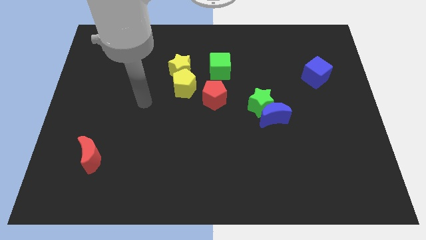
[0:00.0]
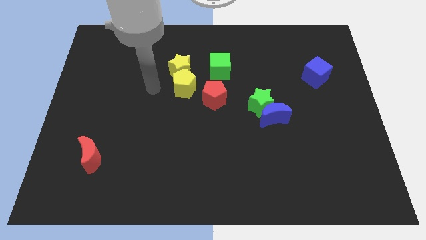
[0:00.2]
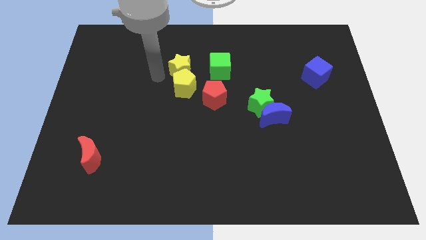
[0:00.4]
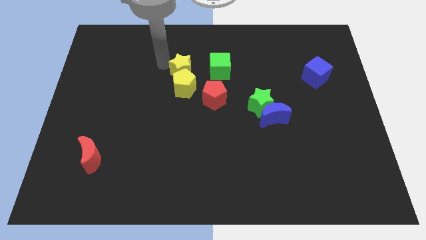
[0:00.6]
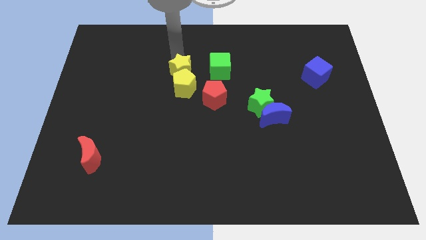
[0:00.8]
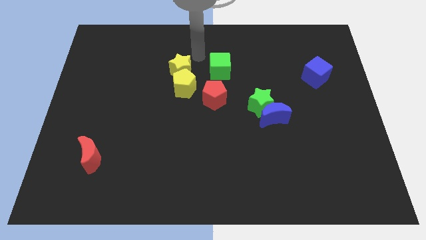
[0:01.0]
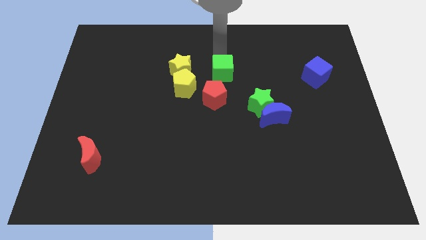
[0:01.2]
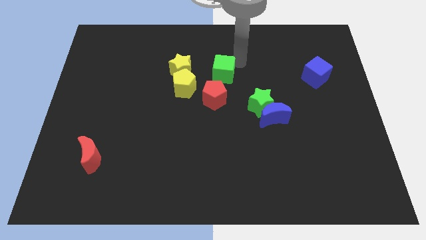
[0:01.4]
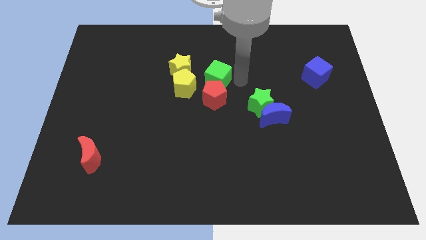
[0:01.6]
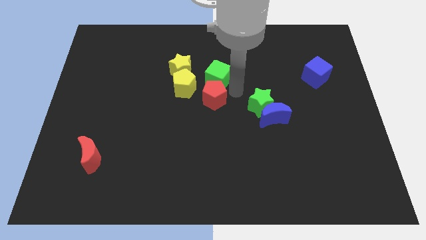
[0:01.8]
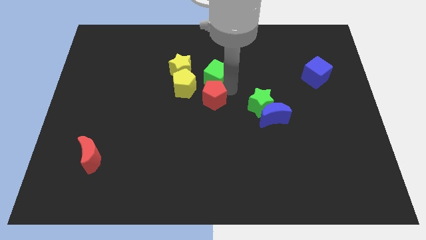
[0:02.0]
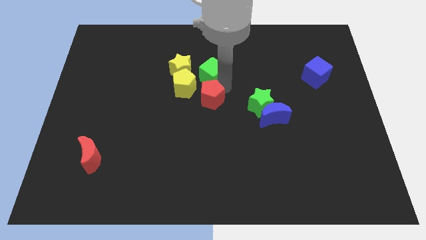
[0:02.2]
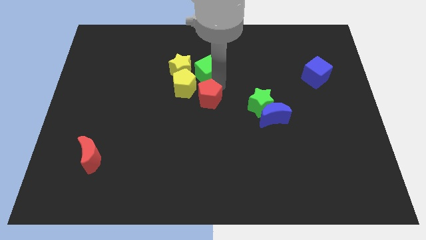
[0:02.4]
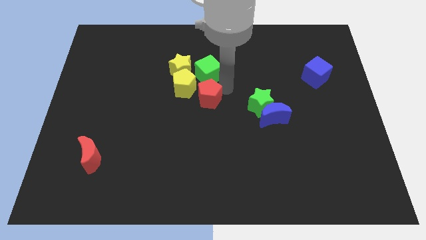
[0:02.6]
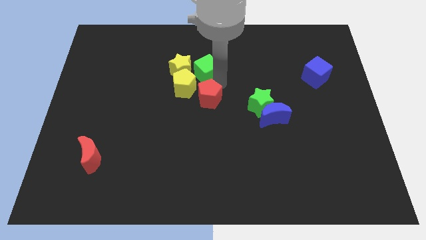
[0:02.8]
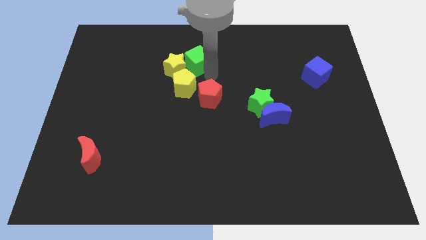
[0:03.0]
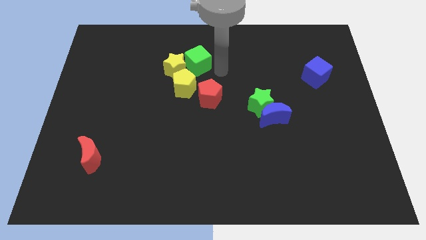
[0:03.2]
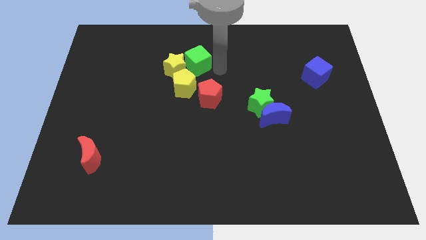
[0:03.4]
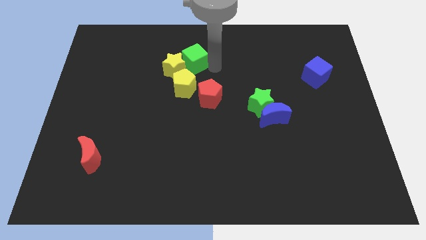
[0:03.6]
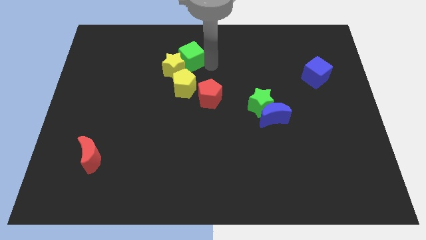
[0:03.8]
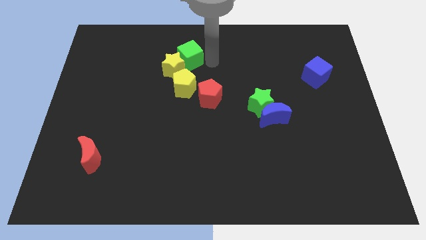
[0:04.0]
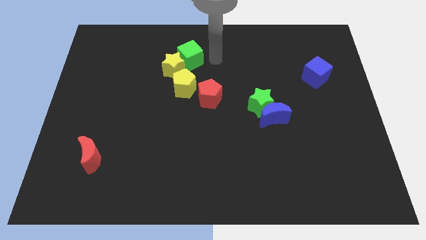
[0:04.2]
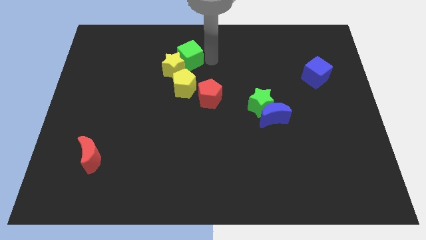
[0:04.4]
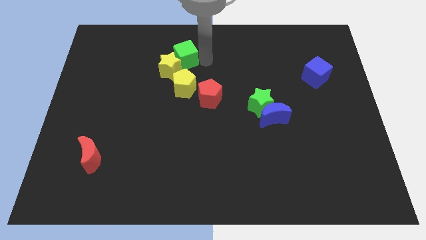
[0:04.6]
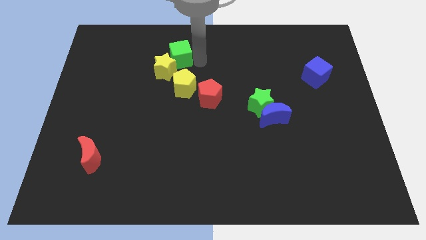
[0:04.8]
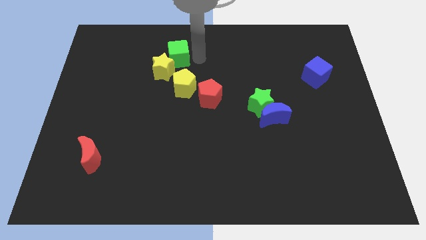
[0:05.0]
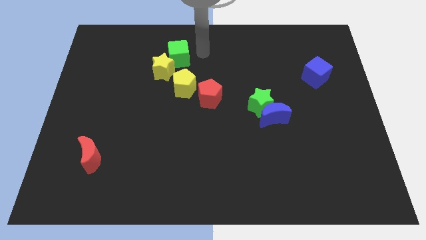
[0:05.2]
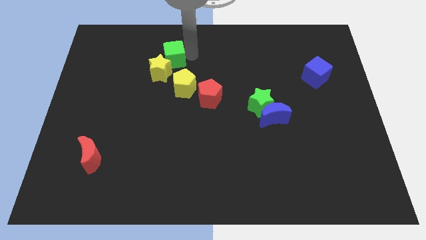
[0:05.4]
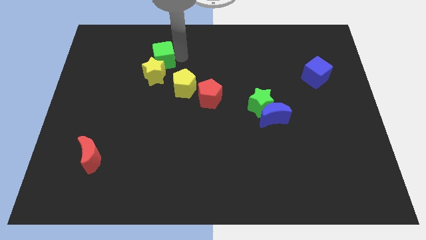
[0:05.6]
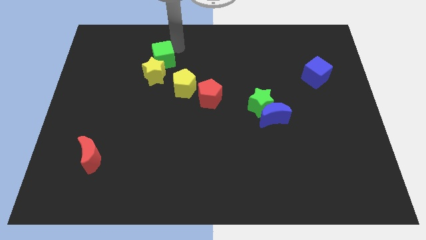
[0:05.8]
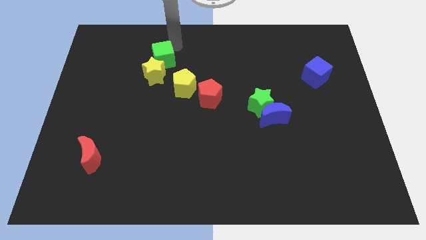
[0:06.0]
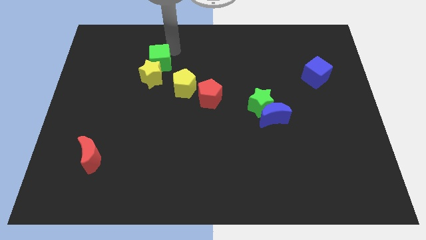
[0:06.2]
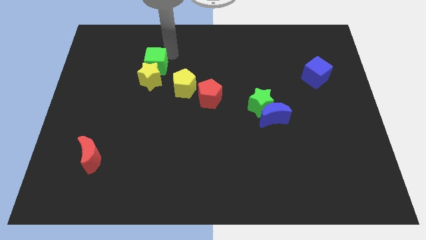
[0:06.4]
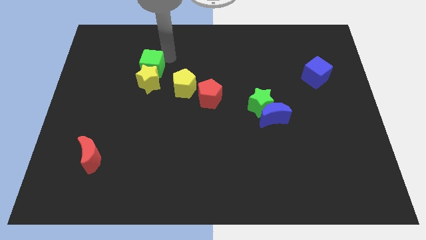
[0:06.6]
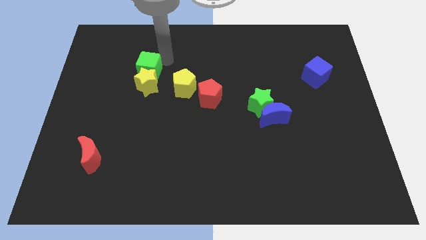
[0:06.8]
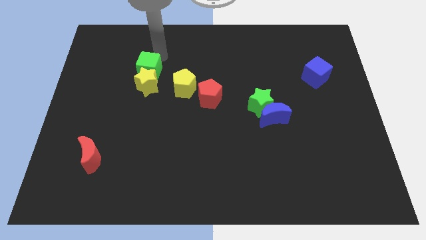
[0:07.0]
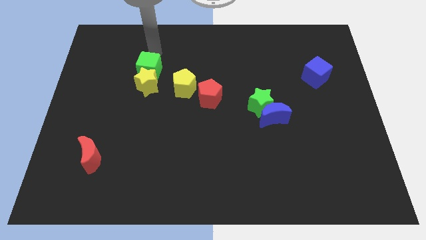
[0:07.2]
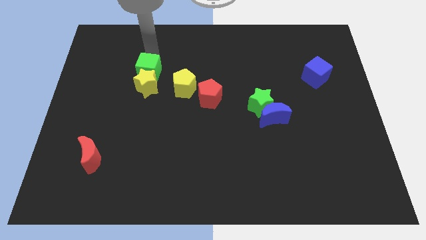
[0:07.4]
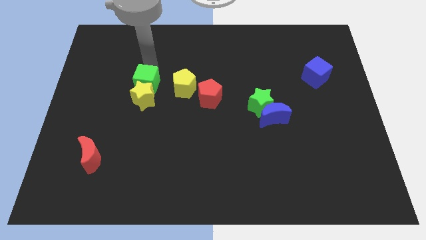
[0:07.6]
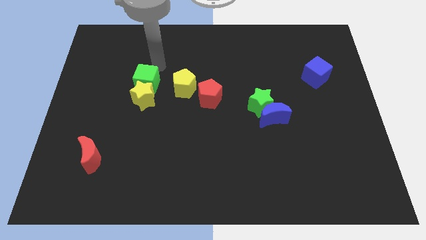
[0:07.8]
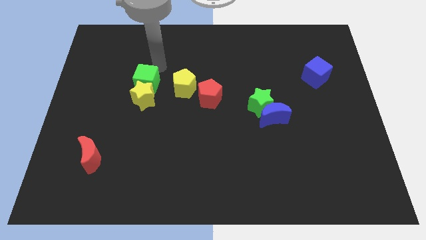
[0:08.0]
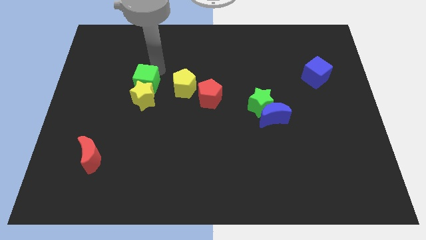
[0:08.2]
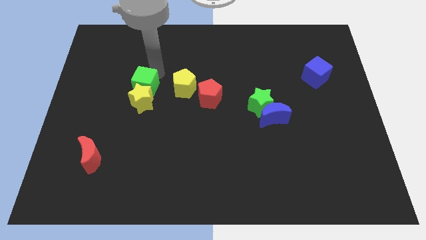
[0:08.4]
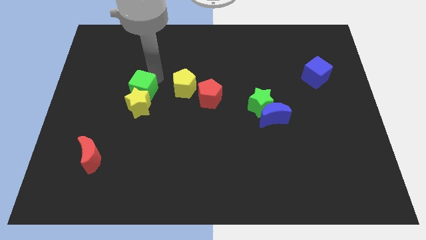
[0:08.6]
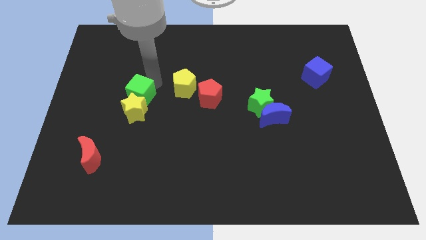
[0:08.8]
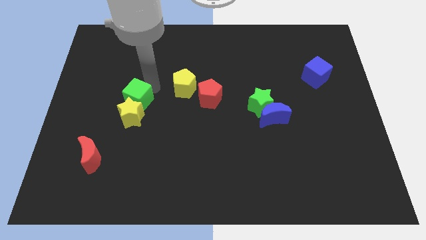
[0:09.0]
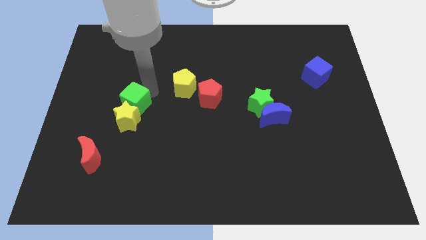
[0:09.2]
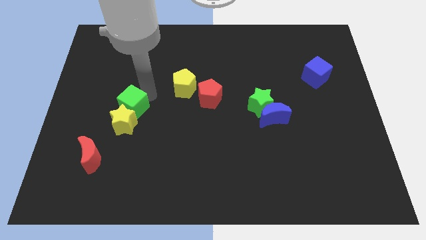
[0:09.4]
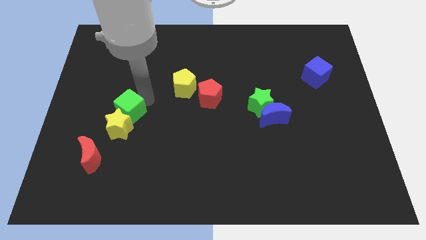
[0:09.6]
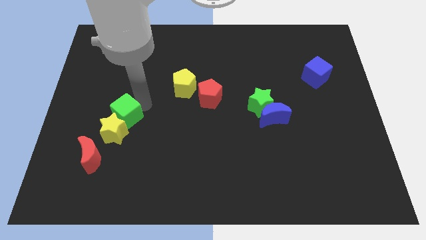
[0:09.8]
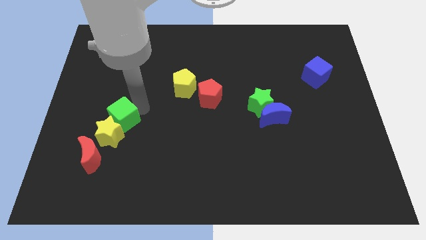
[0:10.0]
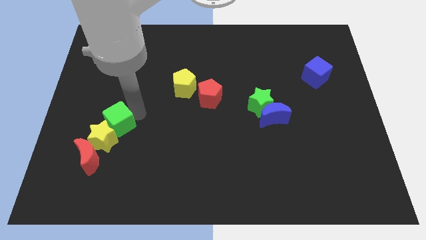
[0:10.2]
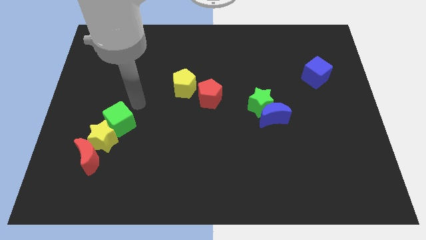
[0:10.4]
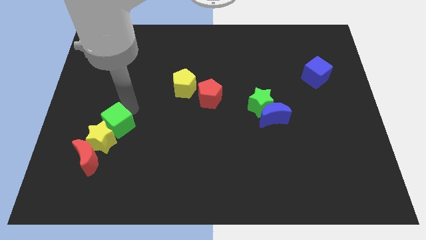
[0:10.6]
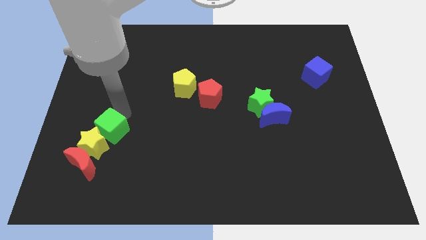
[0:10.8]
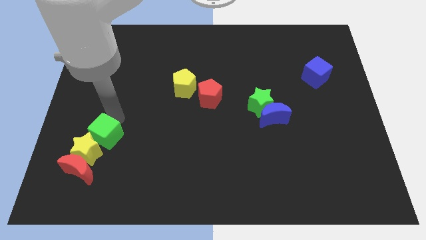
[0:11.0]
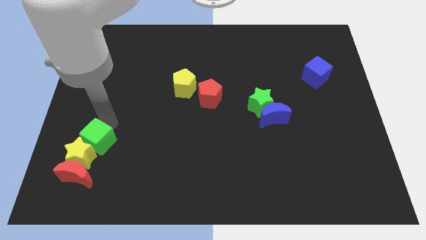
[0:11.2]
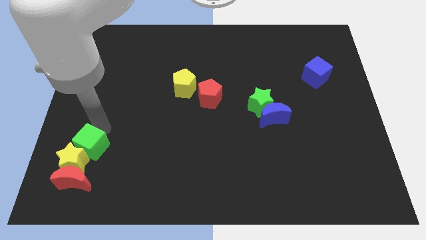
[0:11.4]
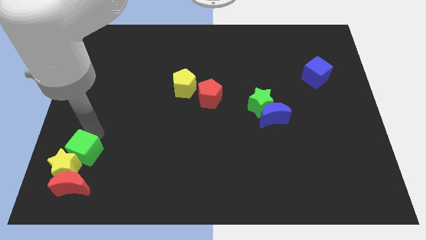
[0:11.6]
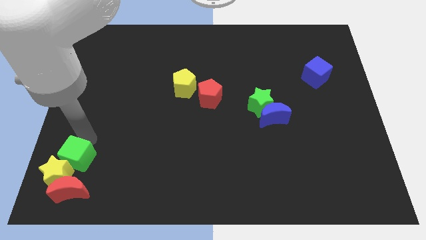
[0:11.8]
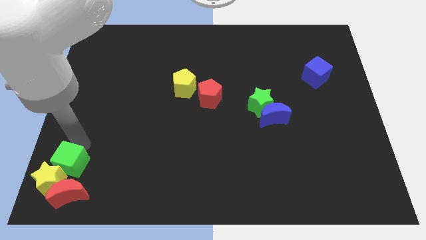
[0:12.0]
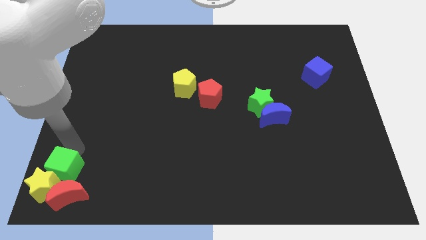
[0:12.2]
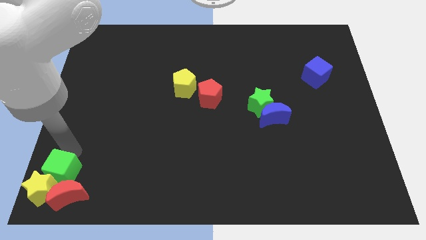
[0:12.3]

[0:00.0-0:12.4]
push the green cube to the red moon
